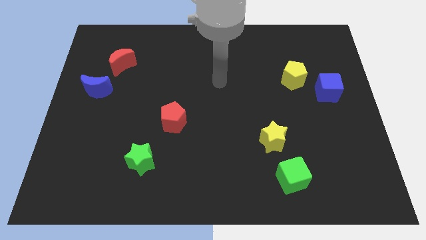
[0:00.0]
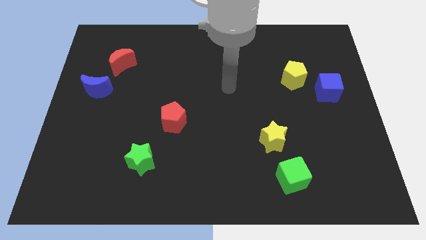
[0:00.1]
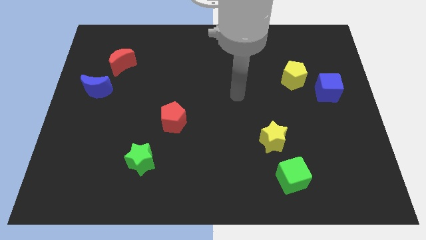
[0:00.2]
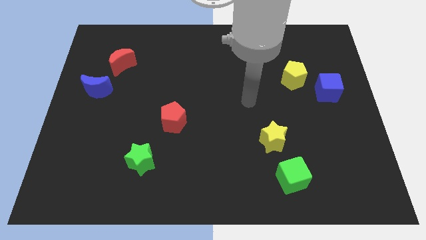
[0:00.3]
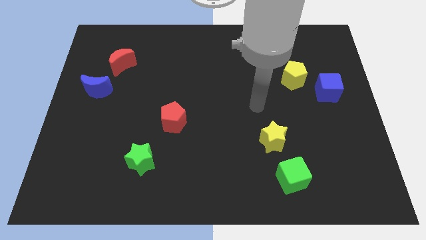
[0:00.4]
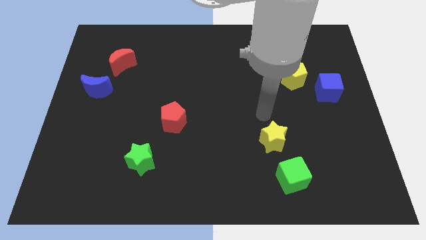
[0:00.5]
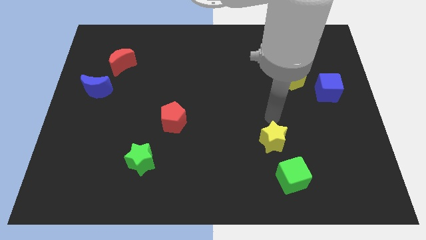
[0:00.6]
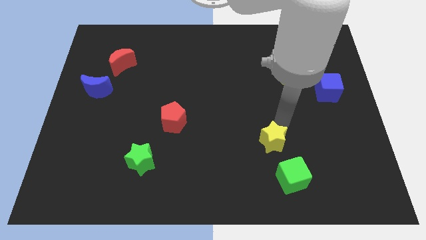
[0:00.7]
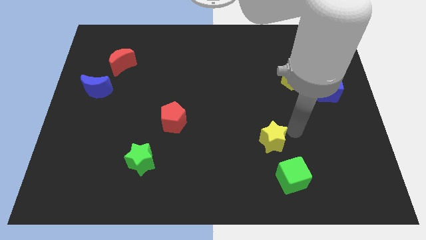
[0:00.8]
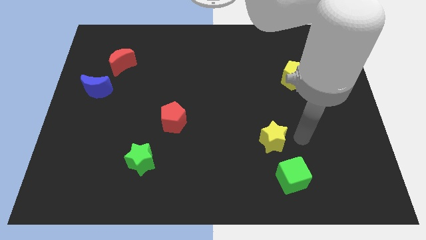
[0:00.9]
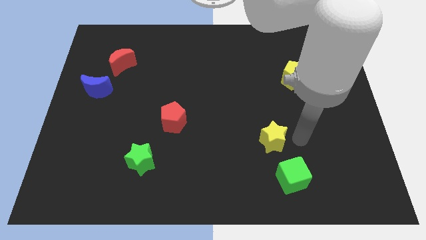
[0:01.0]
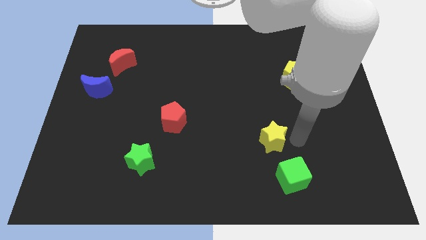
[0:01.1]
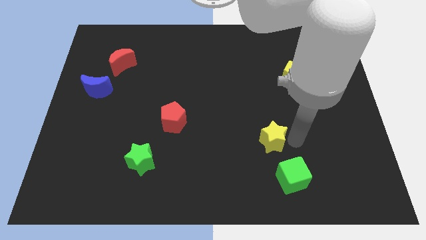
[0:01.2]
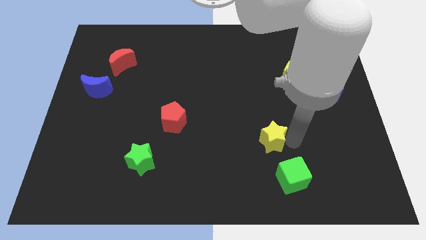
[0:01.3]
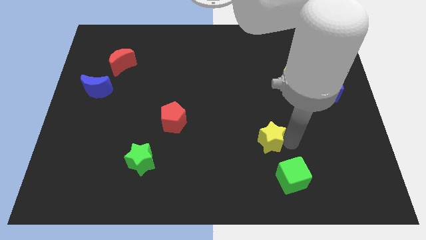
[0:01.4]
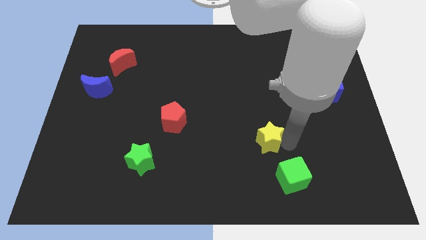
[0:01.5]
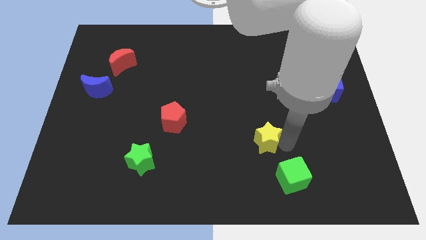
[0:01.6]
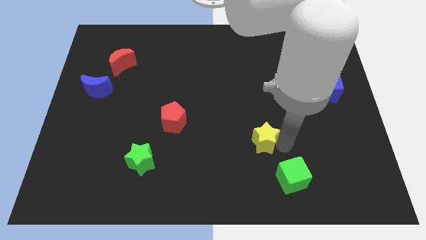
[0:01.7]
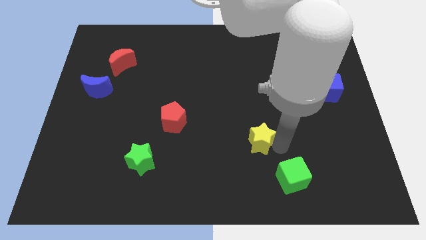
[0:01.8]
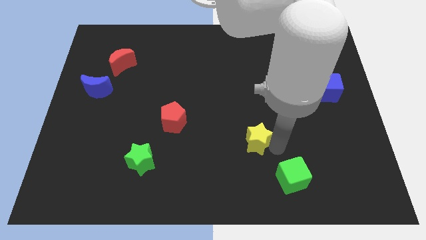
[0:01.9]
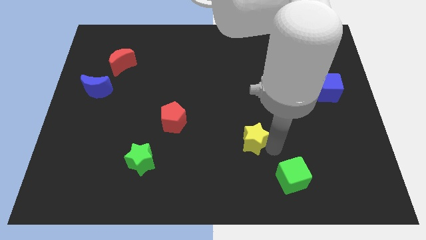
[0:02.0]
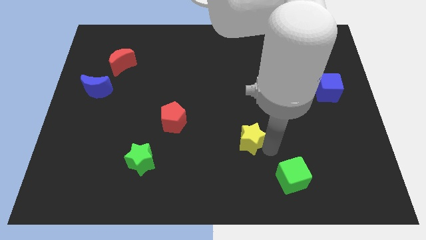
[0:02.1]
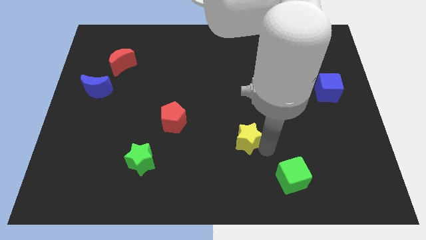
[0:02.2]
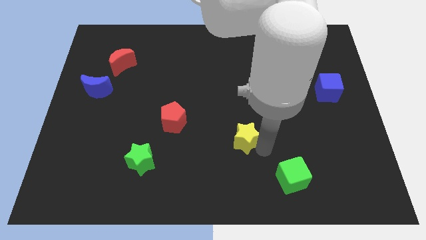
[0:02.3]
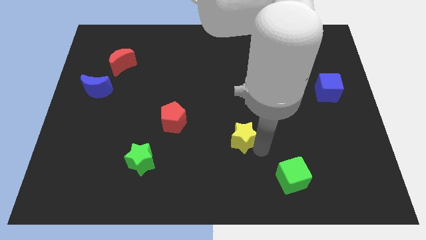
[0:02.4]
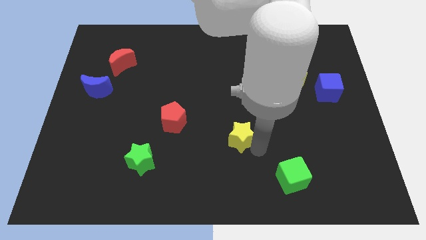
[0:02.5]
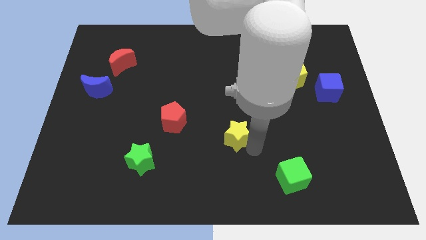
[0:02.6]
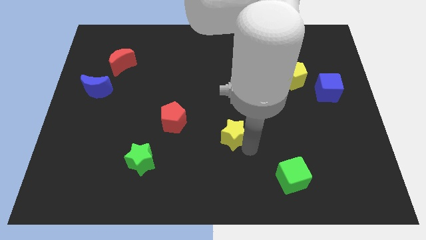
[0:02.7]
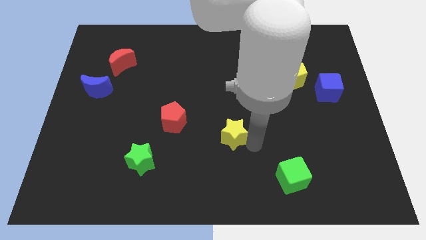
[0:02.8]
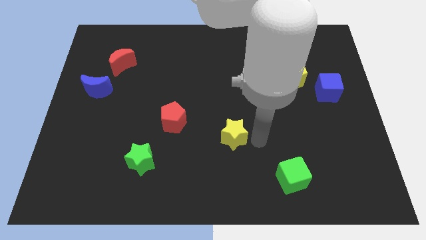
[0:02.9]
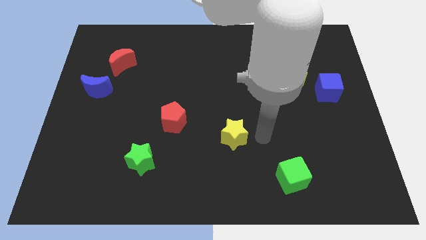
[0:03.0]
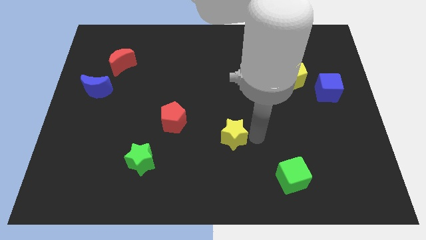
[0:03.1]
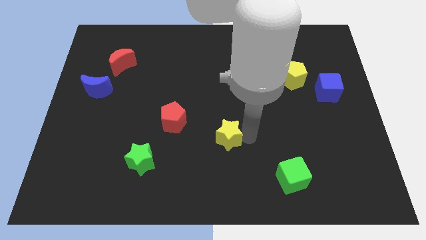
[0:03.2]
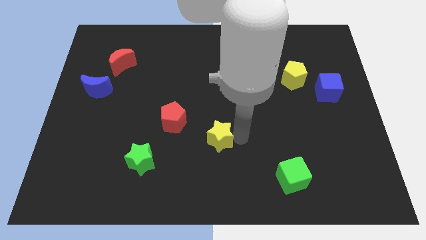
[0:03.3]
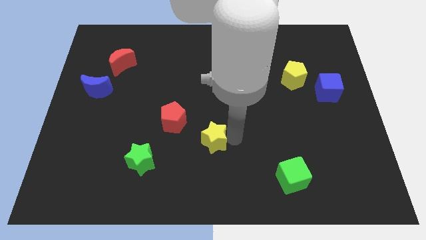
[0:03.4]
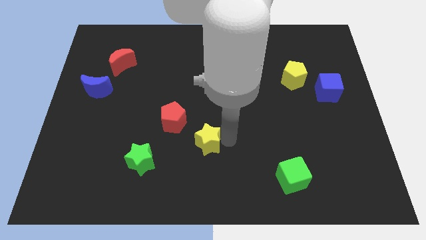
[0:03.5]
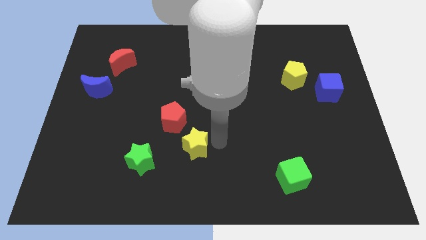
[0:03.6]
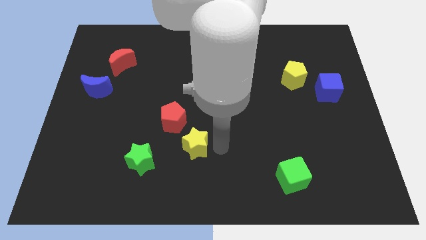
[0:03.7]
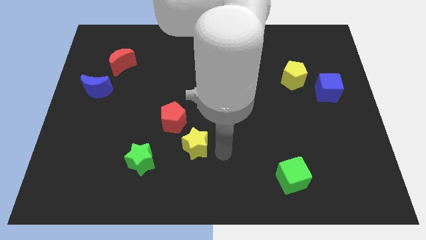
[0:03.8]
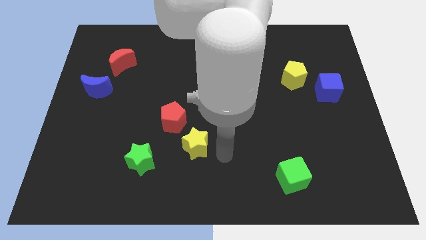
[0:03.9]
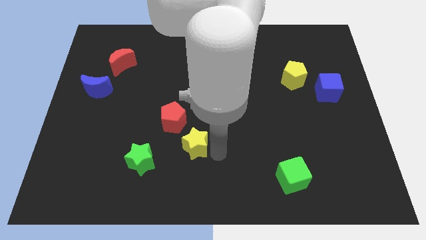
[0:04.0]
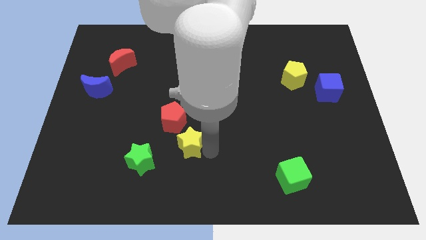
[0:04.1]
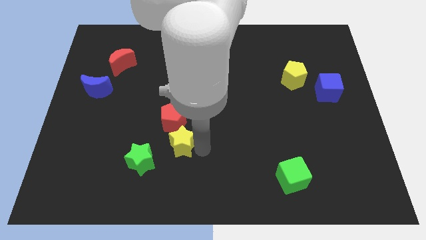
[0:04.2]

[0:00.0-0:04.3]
move the yellow star left

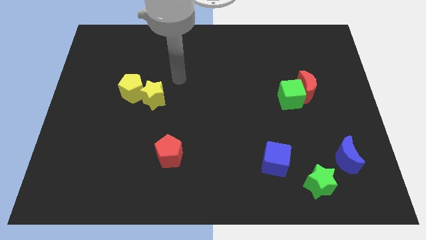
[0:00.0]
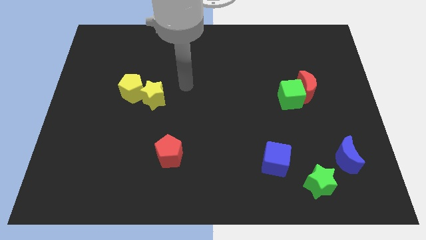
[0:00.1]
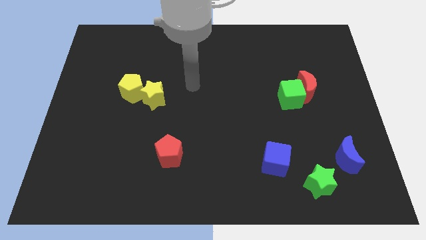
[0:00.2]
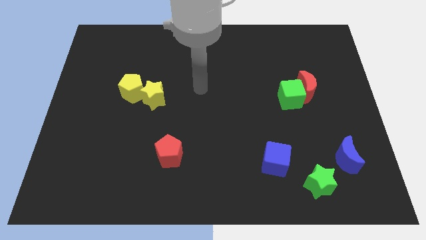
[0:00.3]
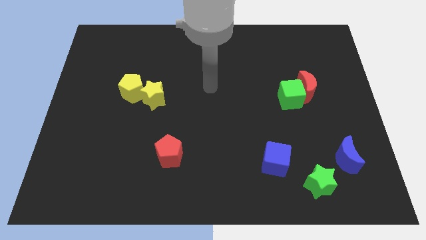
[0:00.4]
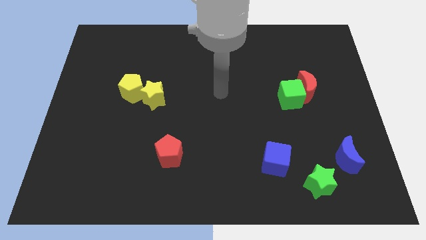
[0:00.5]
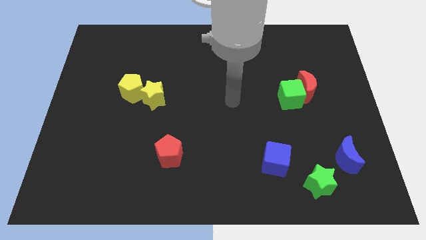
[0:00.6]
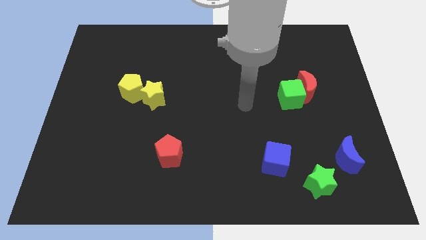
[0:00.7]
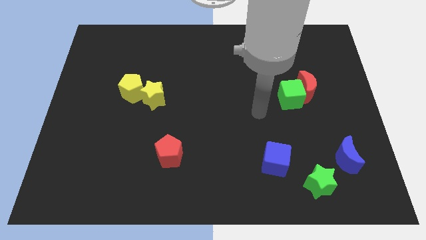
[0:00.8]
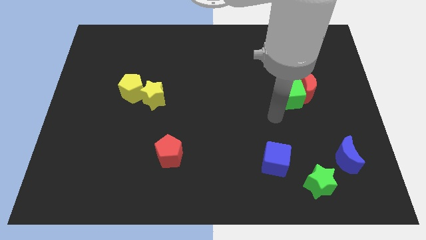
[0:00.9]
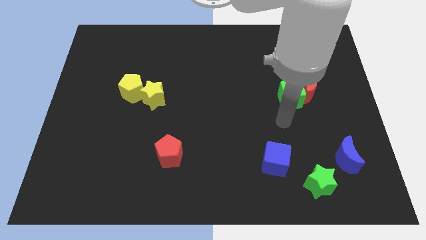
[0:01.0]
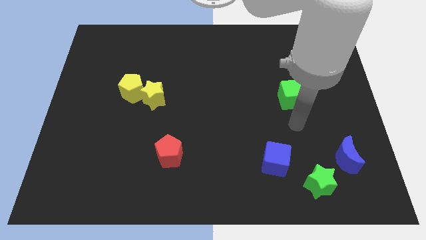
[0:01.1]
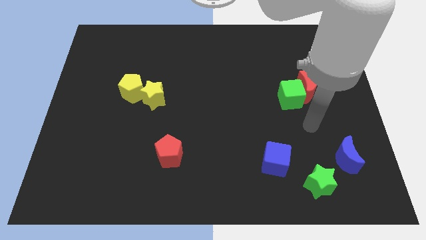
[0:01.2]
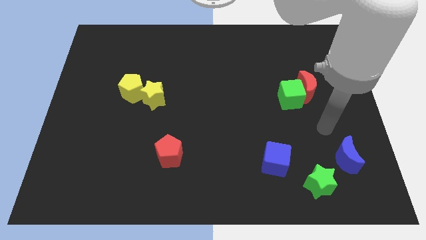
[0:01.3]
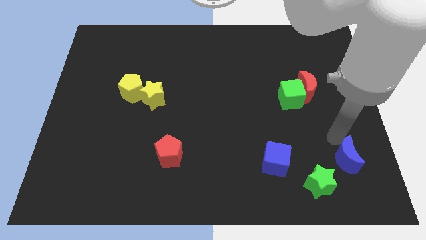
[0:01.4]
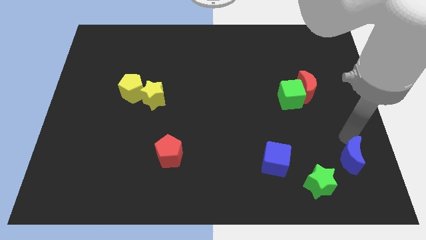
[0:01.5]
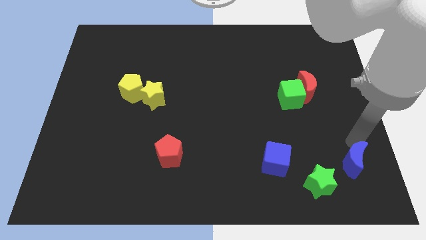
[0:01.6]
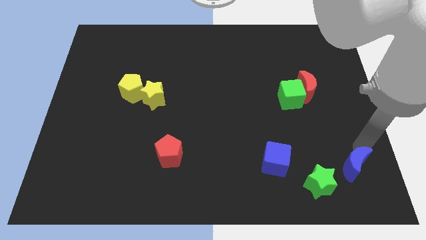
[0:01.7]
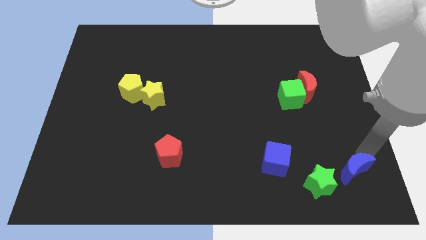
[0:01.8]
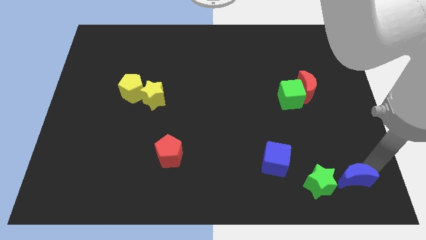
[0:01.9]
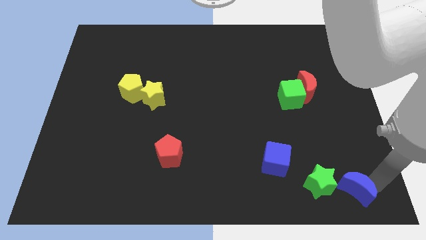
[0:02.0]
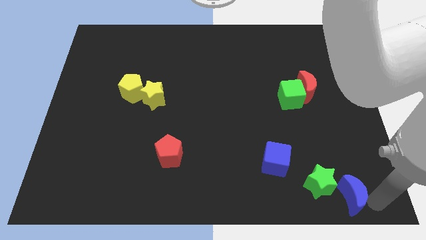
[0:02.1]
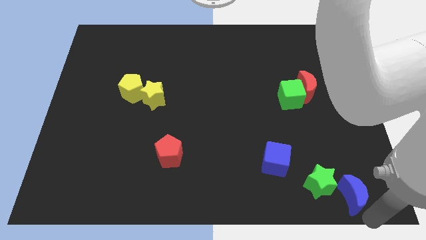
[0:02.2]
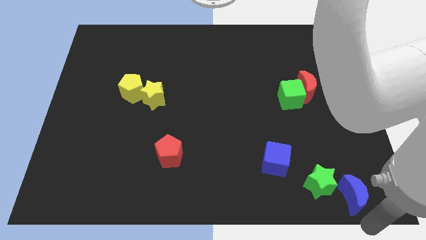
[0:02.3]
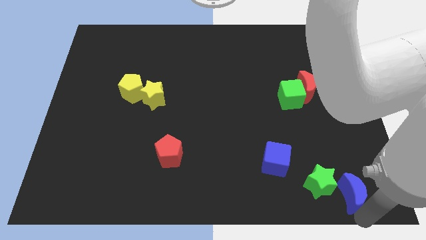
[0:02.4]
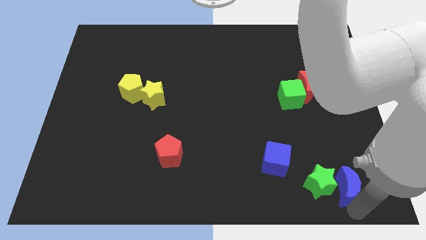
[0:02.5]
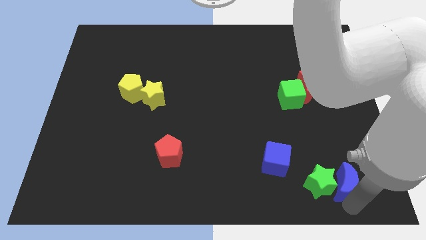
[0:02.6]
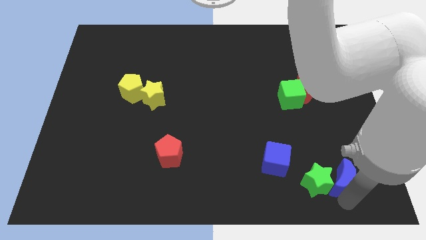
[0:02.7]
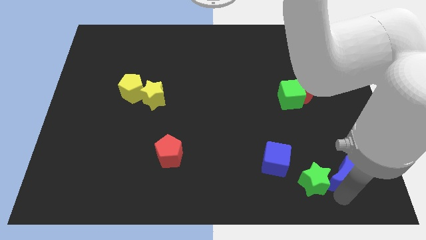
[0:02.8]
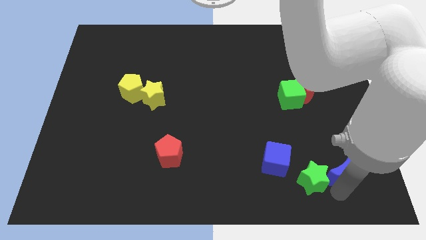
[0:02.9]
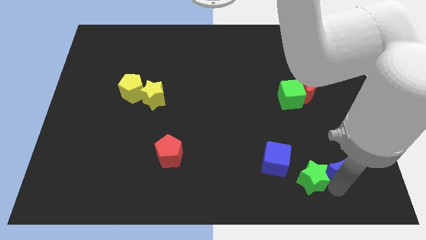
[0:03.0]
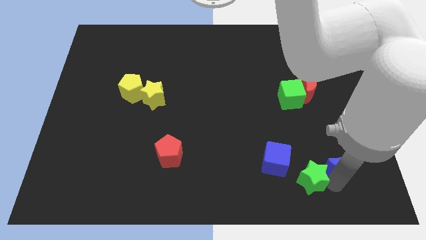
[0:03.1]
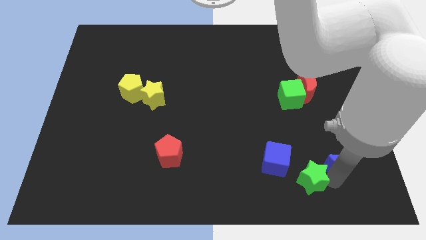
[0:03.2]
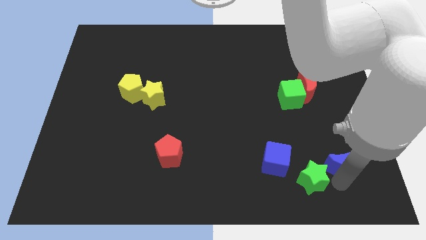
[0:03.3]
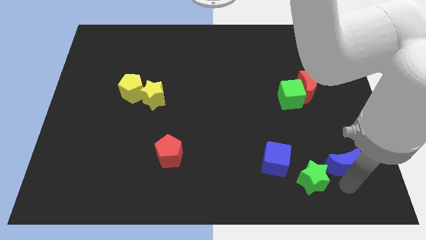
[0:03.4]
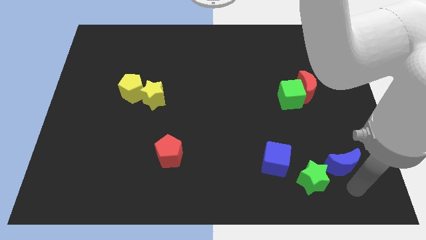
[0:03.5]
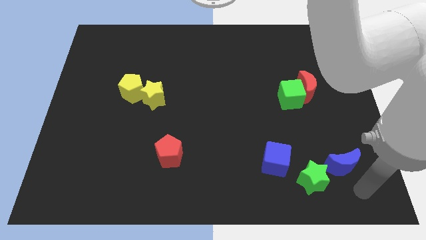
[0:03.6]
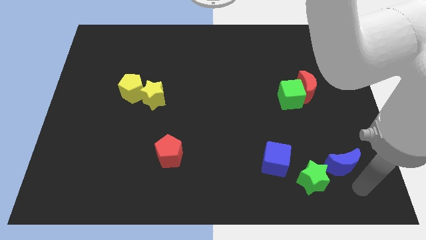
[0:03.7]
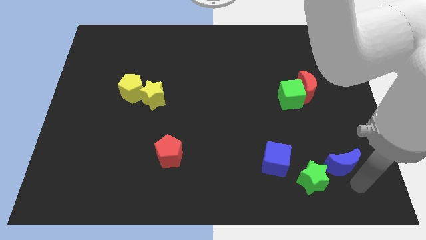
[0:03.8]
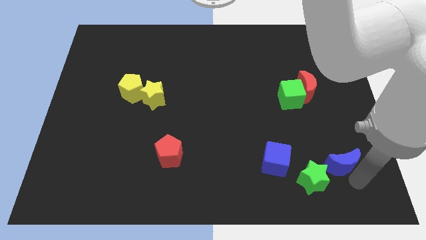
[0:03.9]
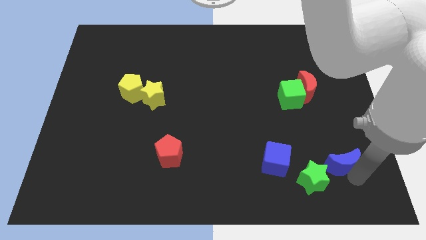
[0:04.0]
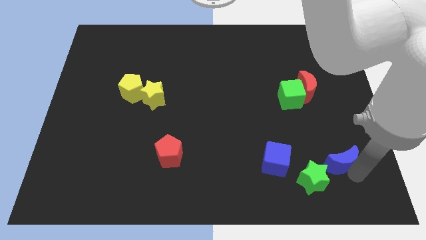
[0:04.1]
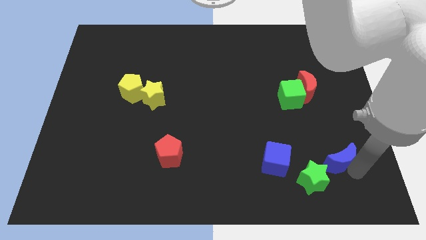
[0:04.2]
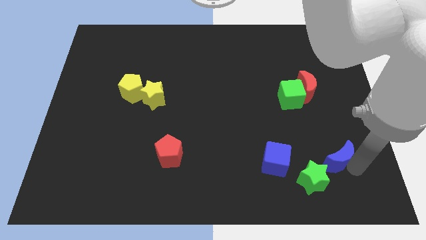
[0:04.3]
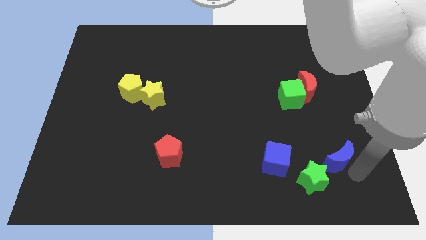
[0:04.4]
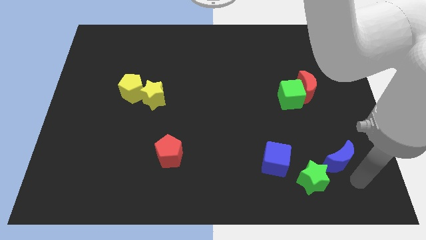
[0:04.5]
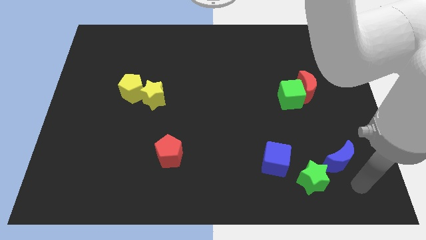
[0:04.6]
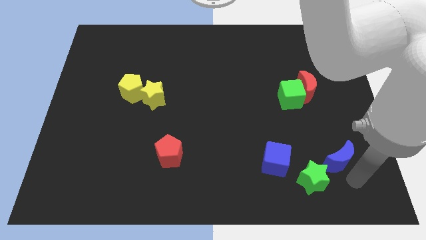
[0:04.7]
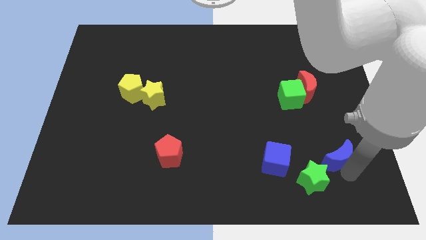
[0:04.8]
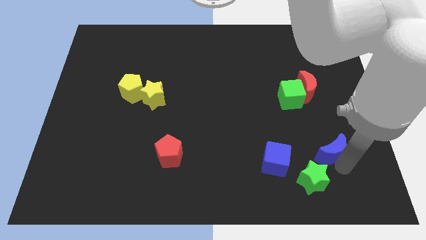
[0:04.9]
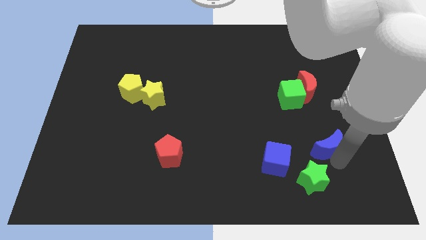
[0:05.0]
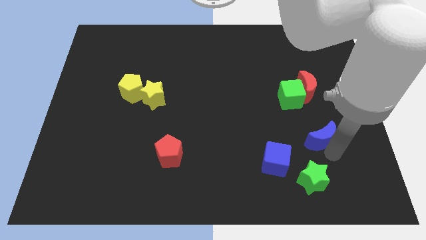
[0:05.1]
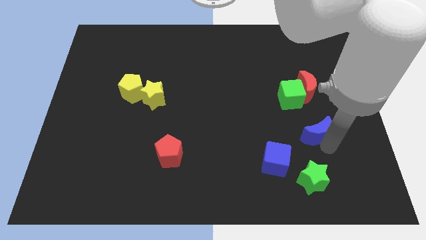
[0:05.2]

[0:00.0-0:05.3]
push the blue moon a bit up and left
